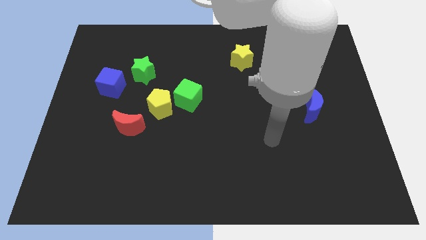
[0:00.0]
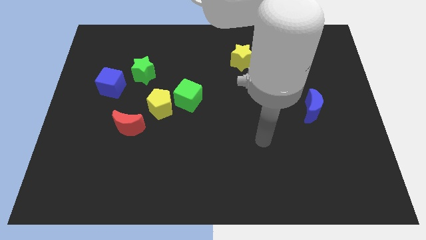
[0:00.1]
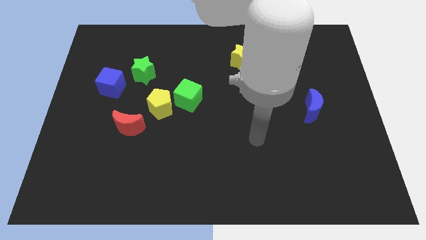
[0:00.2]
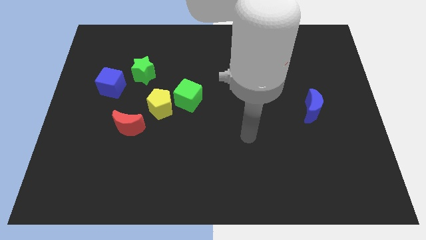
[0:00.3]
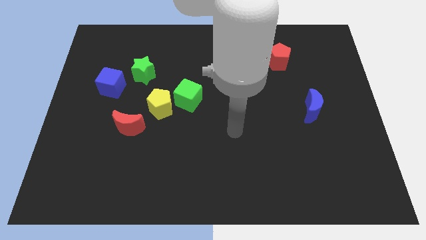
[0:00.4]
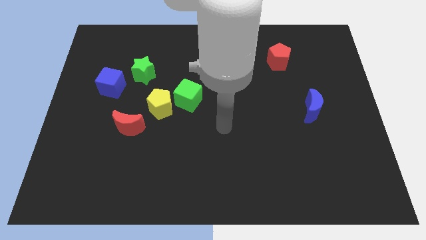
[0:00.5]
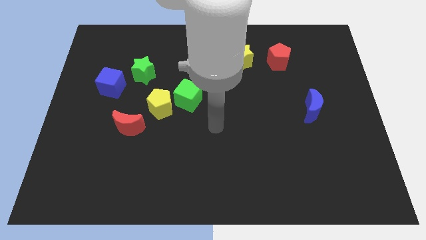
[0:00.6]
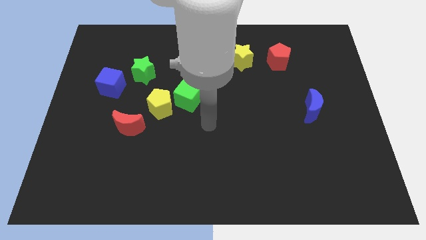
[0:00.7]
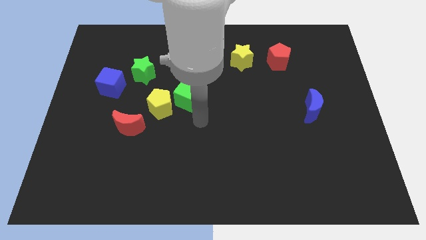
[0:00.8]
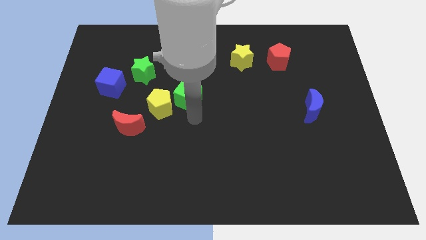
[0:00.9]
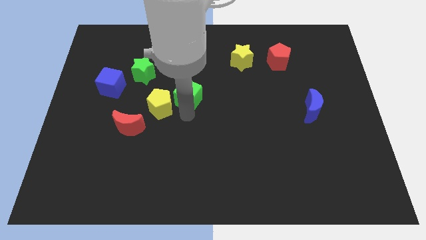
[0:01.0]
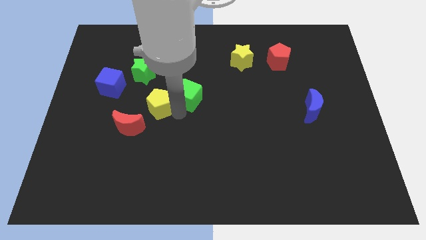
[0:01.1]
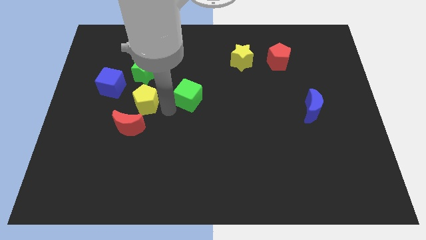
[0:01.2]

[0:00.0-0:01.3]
move the green cube away from the yellow pentagon

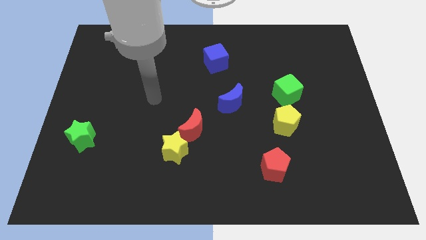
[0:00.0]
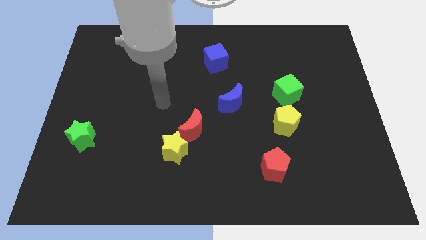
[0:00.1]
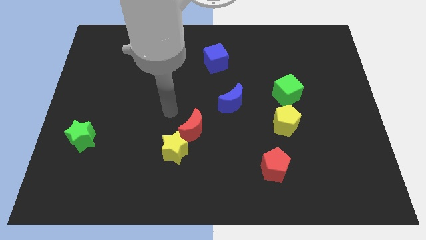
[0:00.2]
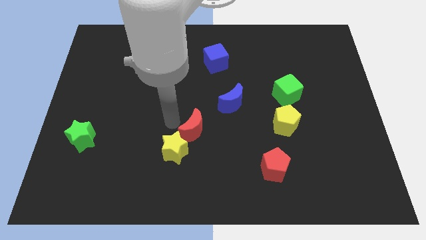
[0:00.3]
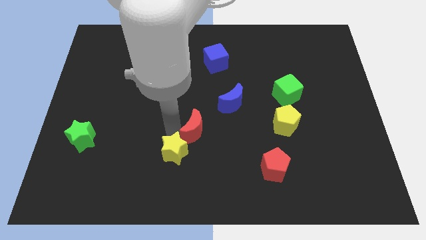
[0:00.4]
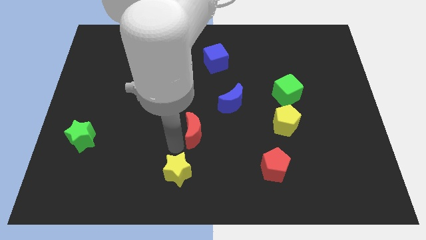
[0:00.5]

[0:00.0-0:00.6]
separate the red moon from the yellow star

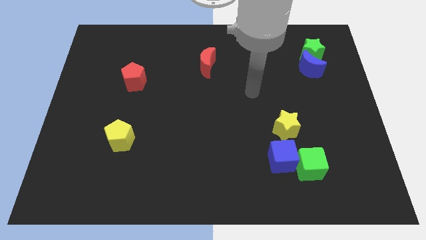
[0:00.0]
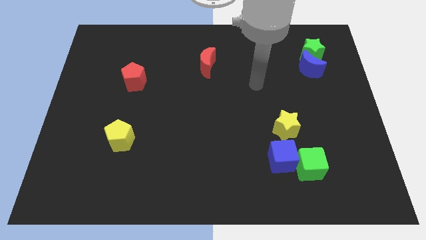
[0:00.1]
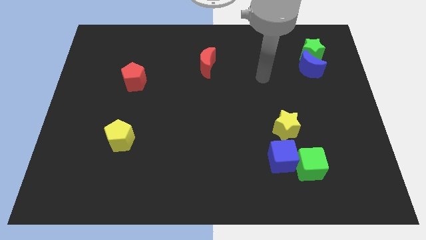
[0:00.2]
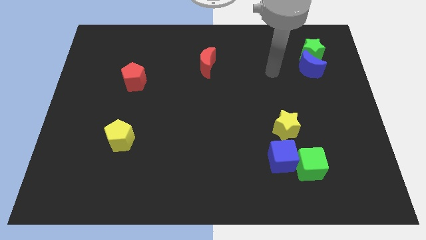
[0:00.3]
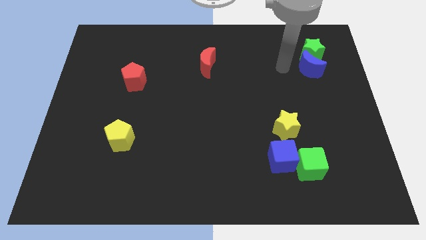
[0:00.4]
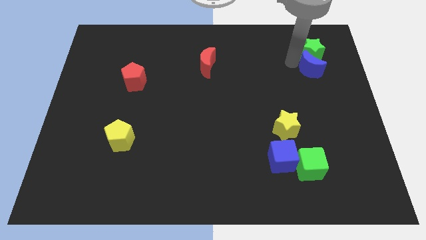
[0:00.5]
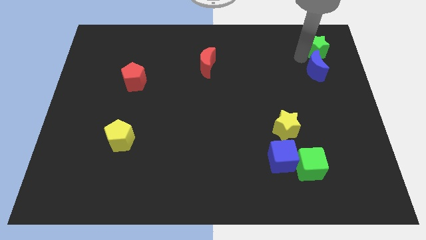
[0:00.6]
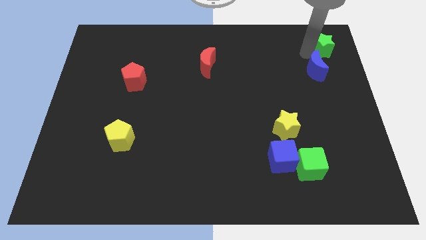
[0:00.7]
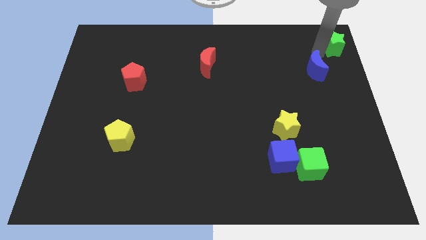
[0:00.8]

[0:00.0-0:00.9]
pull the blue moon apart from the green star

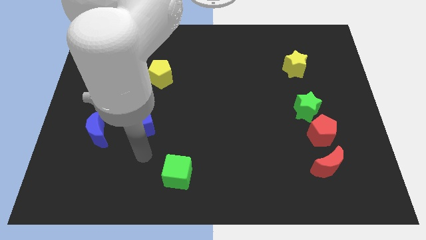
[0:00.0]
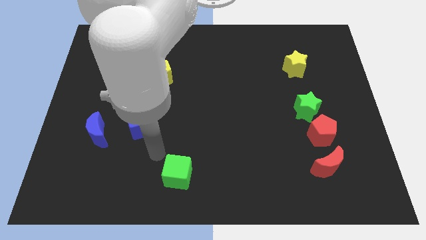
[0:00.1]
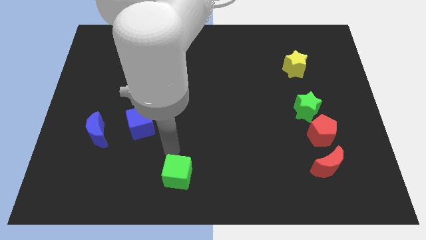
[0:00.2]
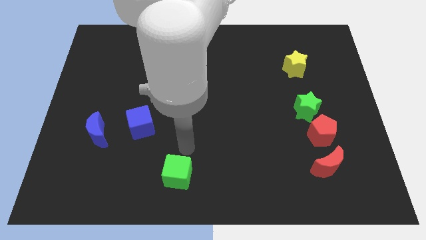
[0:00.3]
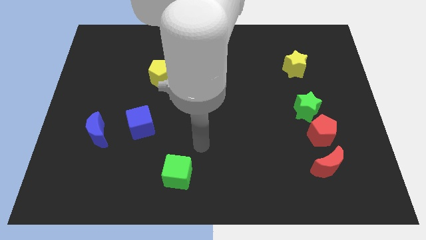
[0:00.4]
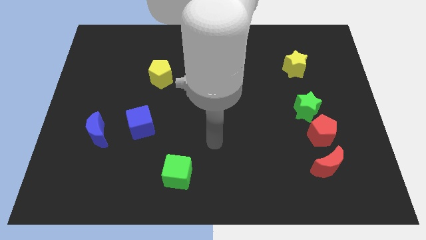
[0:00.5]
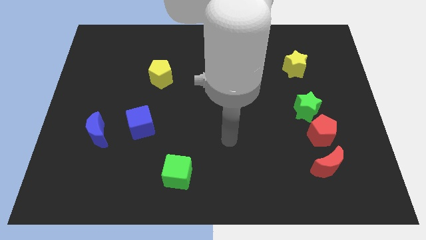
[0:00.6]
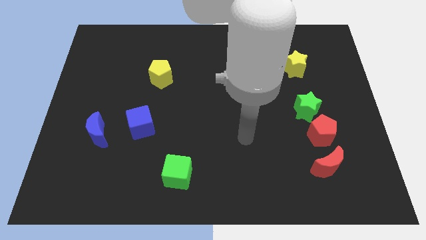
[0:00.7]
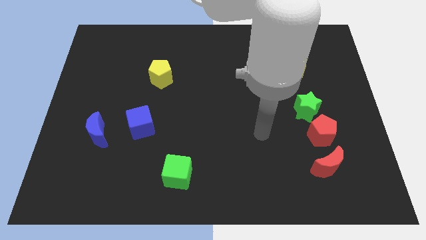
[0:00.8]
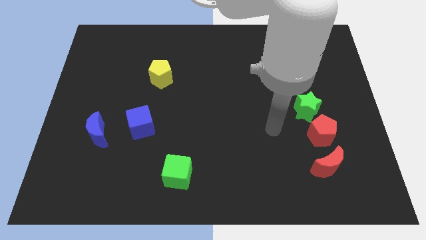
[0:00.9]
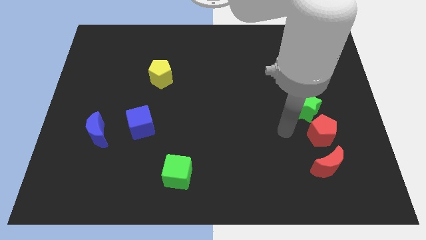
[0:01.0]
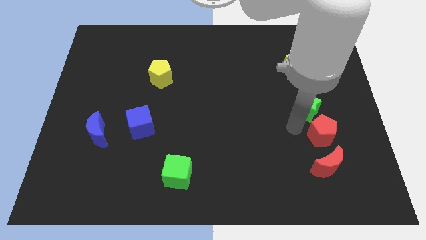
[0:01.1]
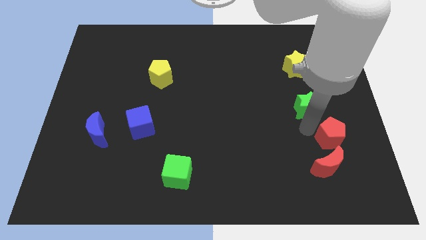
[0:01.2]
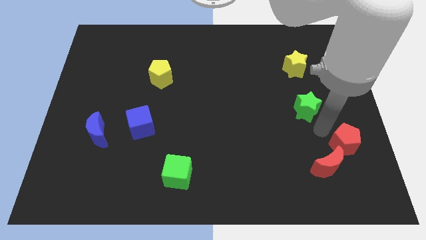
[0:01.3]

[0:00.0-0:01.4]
move the green star away from the red pentagon

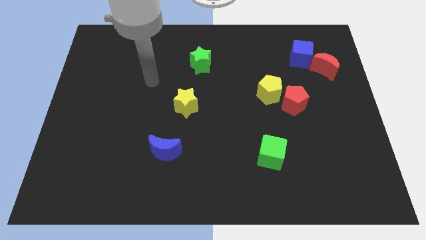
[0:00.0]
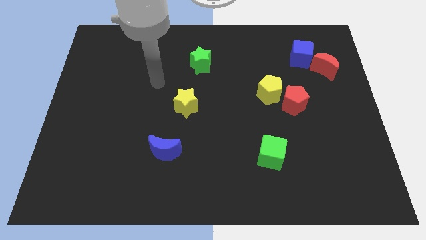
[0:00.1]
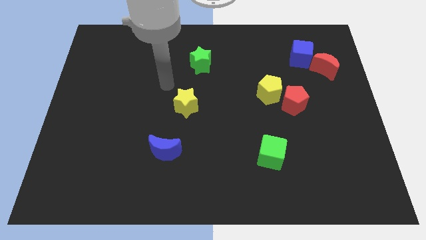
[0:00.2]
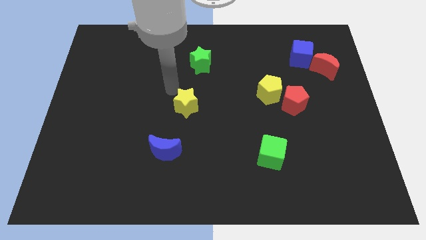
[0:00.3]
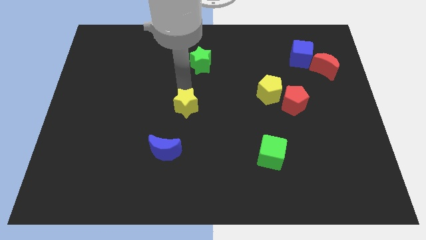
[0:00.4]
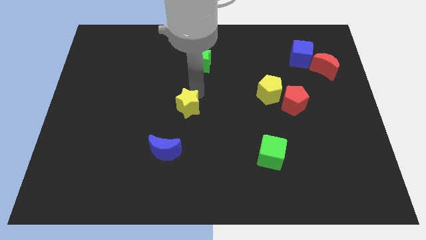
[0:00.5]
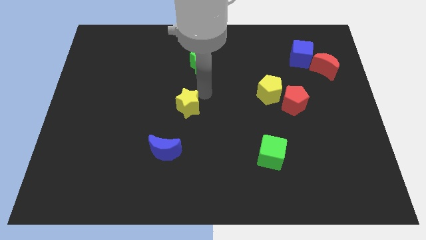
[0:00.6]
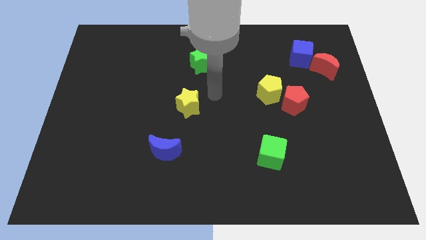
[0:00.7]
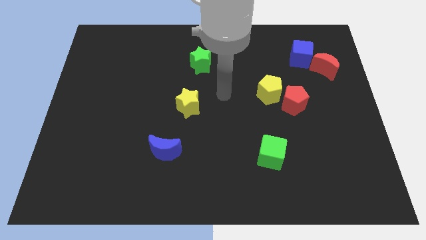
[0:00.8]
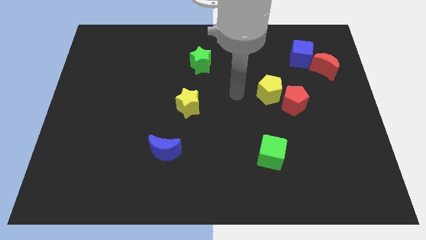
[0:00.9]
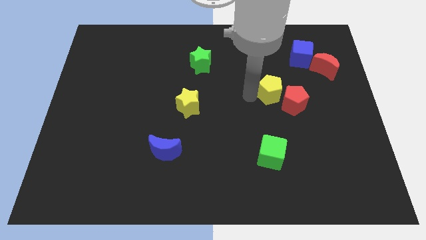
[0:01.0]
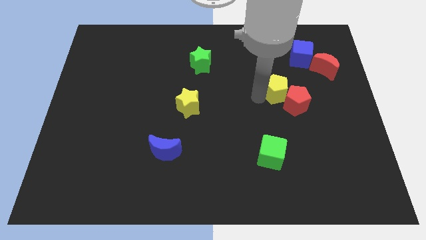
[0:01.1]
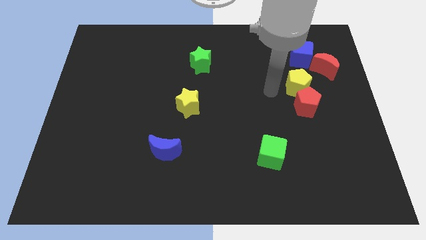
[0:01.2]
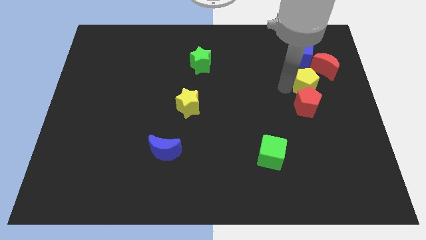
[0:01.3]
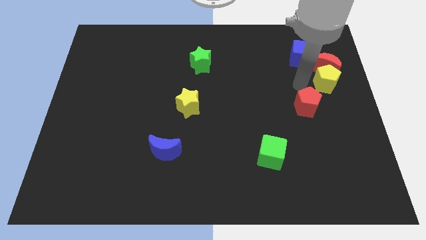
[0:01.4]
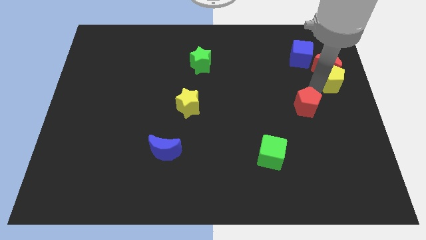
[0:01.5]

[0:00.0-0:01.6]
pull the red pentagon apart from the yellow pentagon

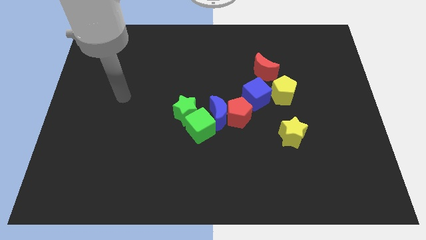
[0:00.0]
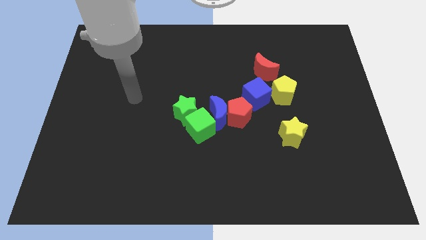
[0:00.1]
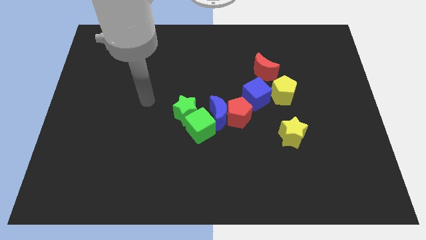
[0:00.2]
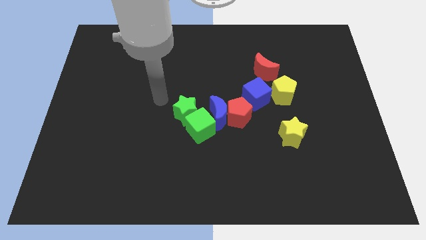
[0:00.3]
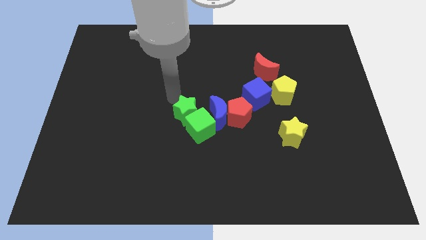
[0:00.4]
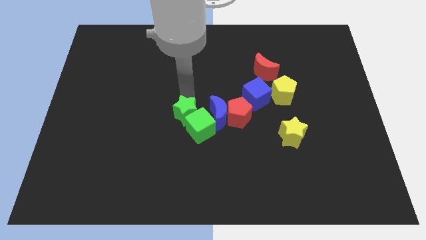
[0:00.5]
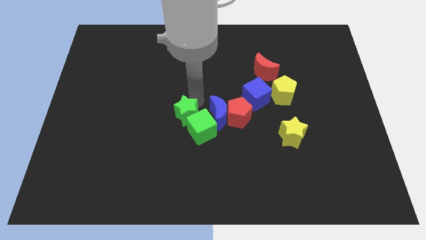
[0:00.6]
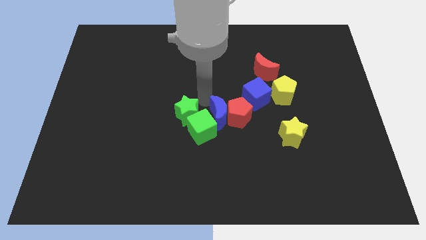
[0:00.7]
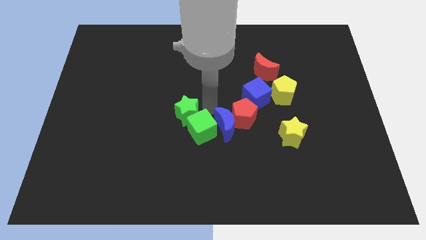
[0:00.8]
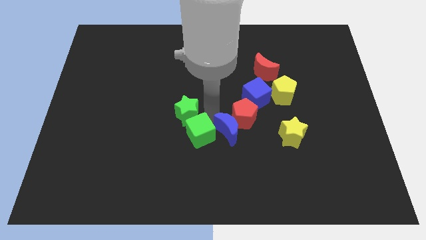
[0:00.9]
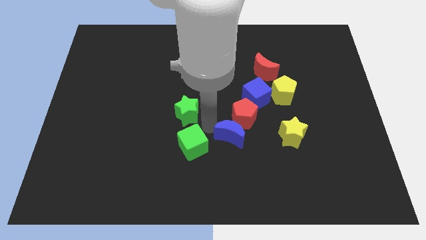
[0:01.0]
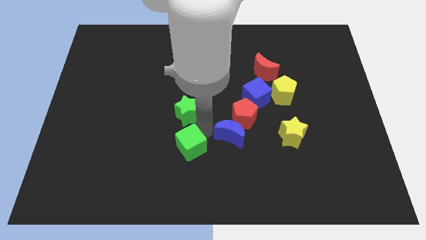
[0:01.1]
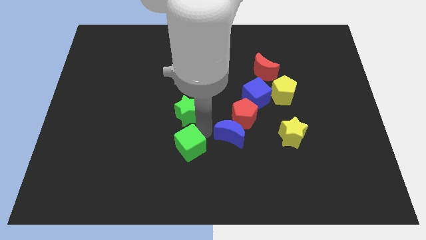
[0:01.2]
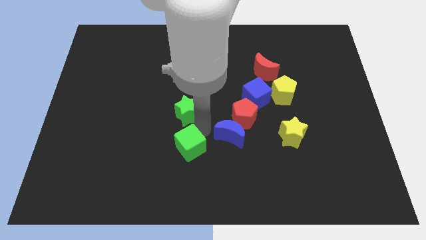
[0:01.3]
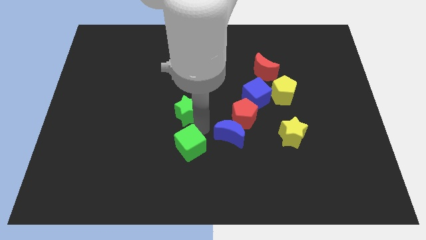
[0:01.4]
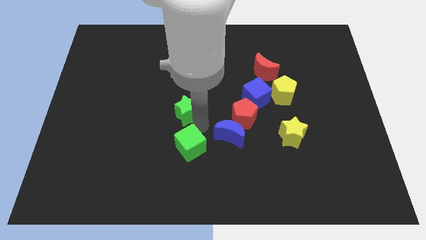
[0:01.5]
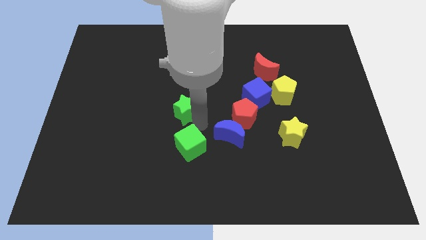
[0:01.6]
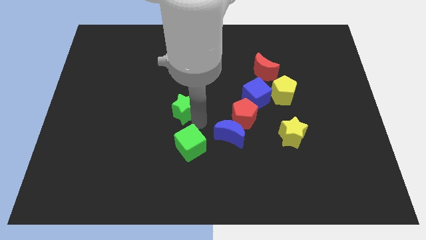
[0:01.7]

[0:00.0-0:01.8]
pull the green star apart from the green cube and blue moon

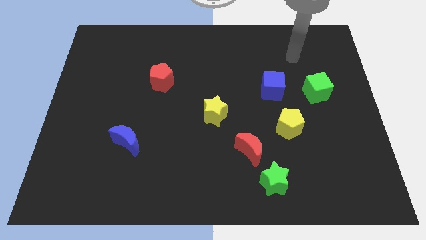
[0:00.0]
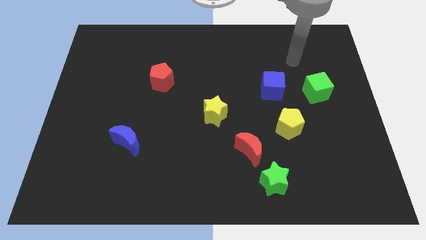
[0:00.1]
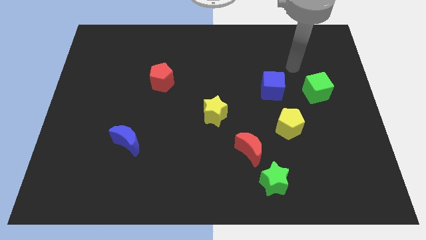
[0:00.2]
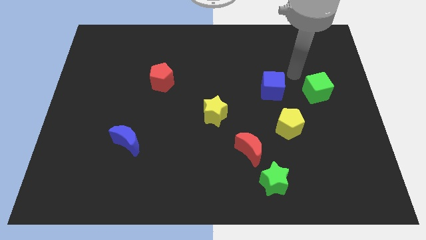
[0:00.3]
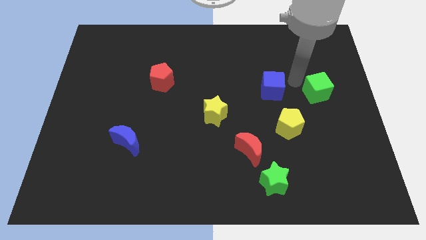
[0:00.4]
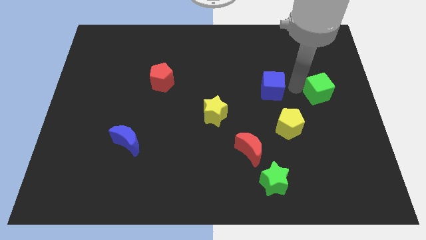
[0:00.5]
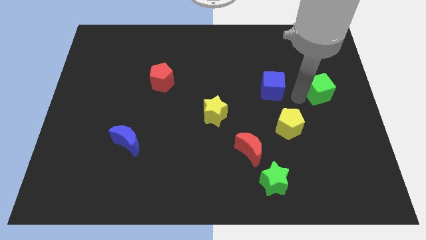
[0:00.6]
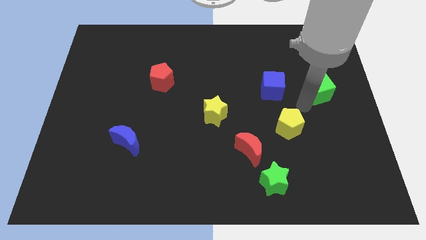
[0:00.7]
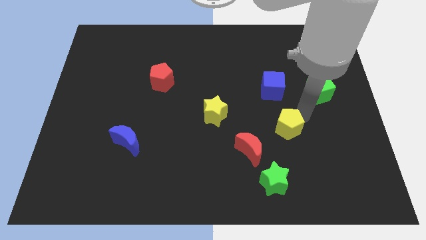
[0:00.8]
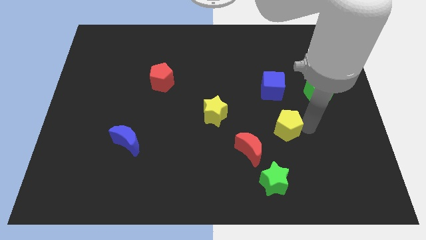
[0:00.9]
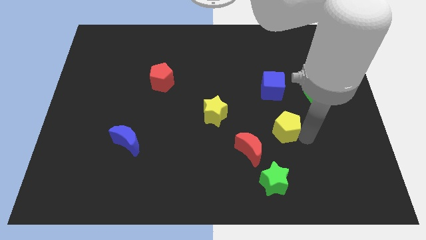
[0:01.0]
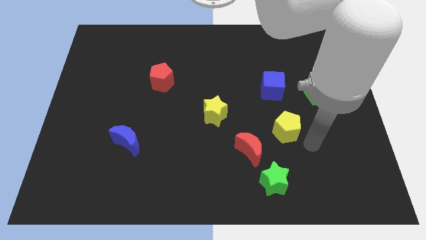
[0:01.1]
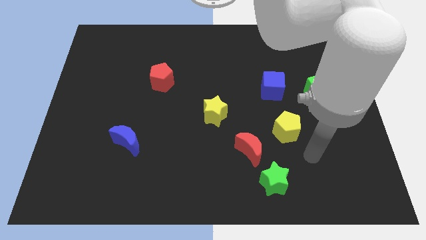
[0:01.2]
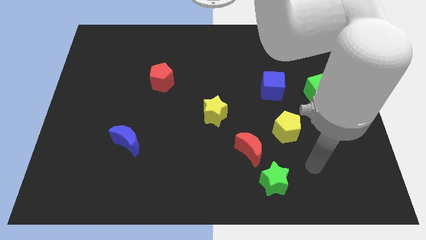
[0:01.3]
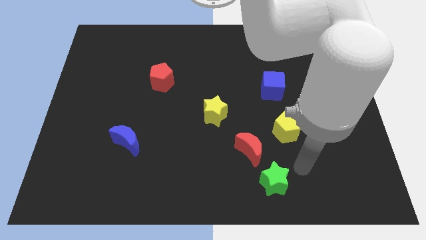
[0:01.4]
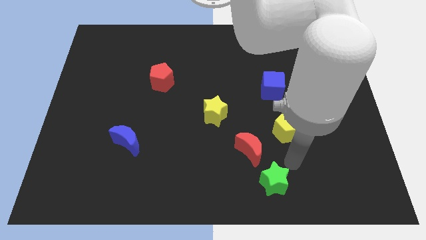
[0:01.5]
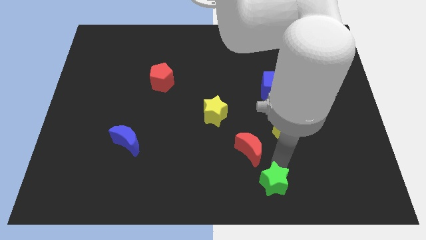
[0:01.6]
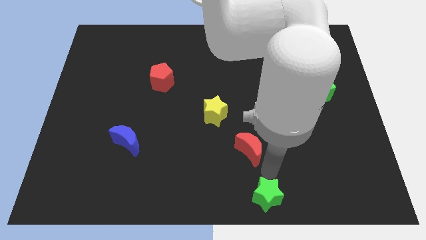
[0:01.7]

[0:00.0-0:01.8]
pull the red moon apart from the green star

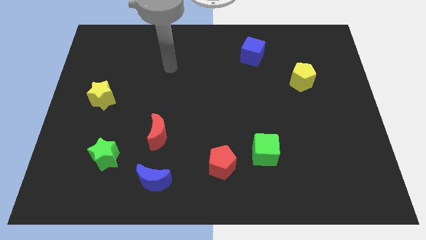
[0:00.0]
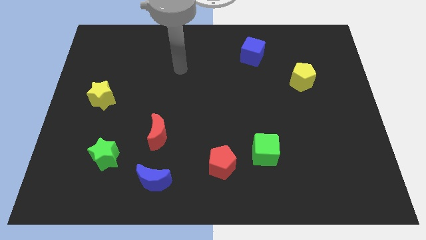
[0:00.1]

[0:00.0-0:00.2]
move the red pentagon away from the green cube
